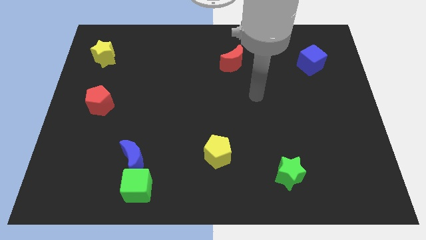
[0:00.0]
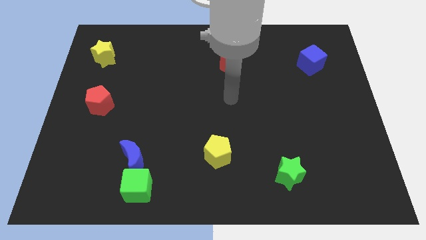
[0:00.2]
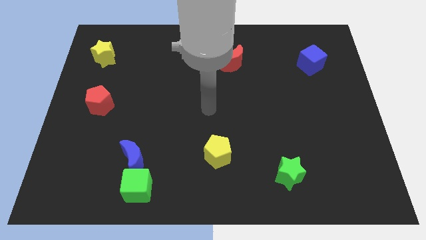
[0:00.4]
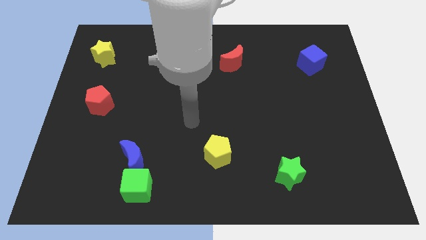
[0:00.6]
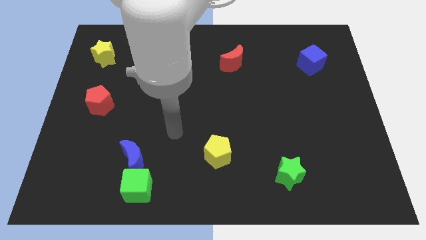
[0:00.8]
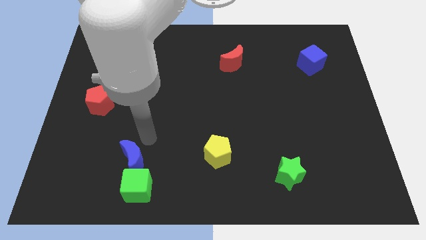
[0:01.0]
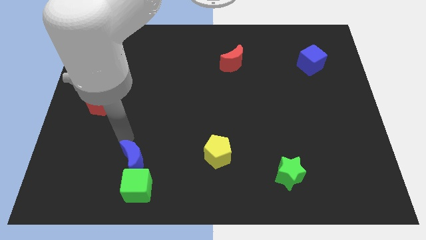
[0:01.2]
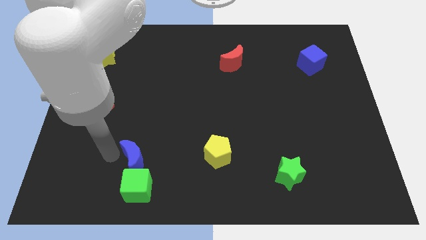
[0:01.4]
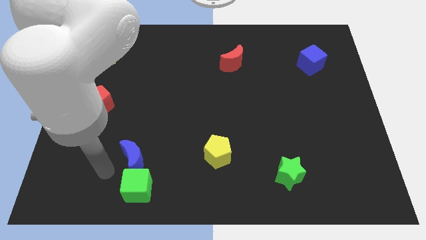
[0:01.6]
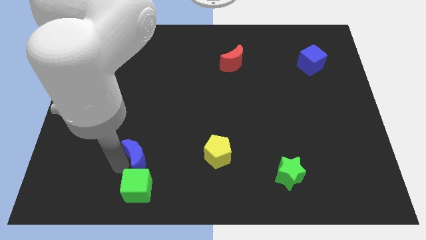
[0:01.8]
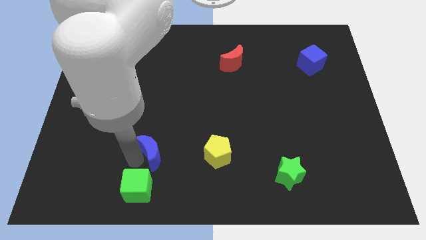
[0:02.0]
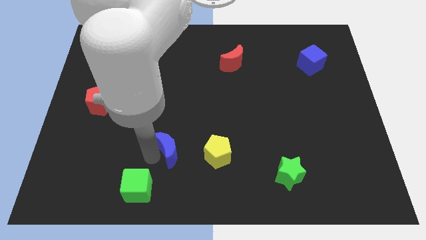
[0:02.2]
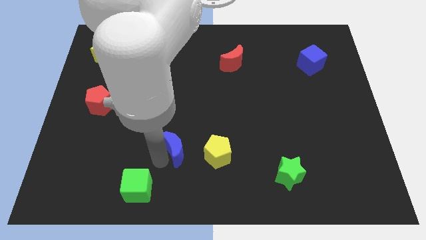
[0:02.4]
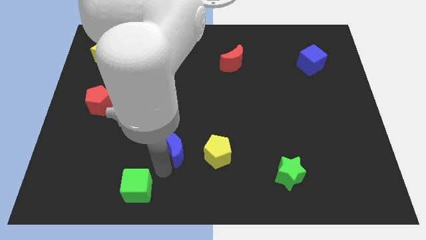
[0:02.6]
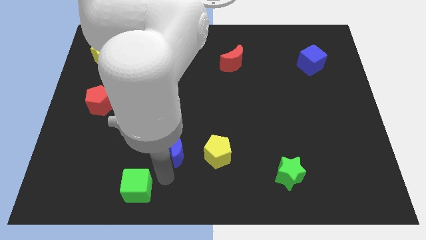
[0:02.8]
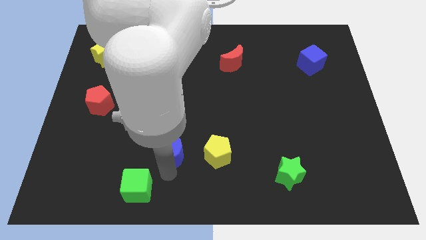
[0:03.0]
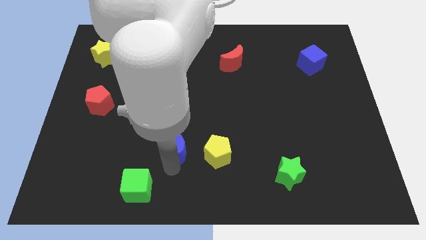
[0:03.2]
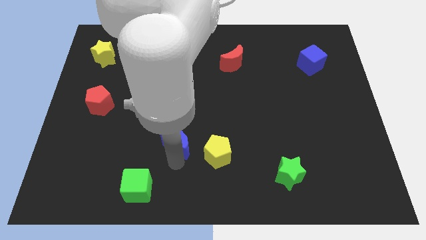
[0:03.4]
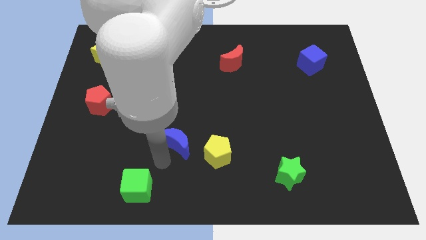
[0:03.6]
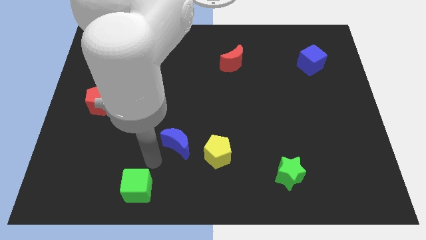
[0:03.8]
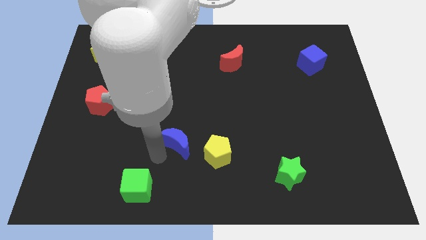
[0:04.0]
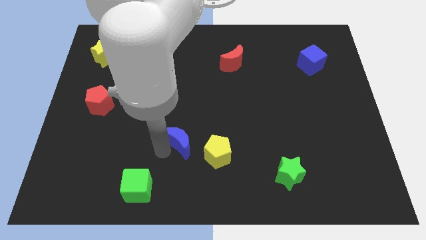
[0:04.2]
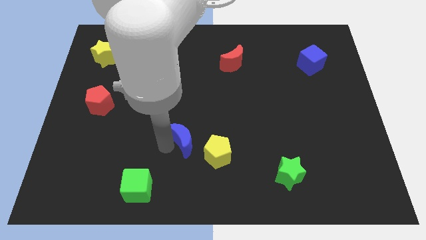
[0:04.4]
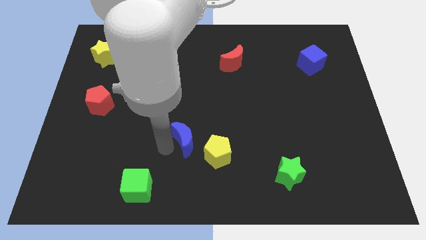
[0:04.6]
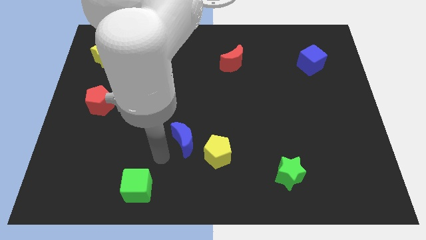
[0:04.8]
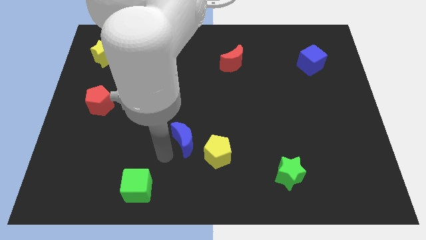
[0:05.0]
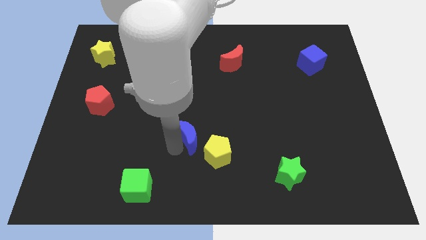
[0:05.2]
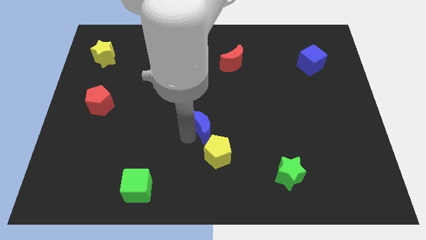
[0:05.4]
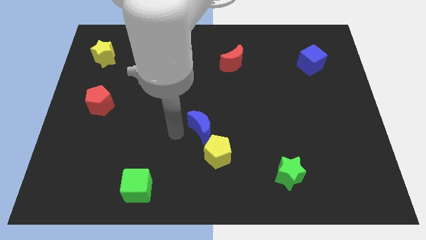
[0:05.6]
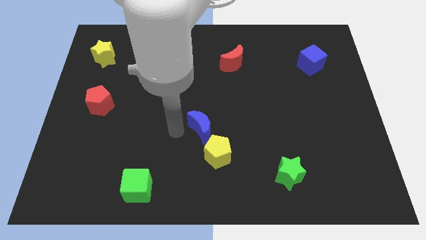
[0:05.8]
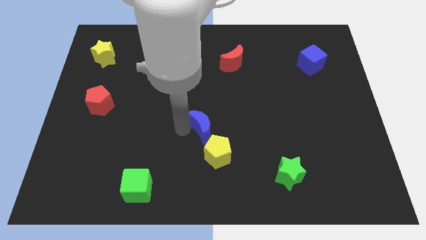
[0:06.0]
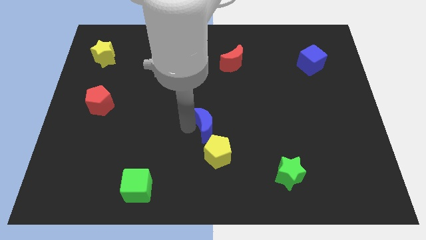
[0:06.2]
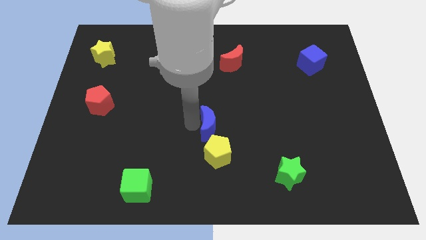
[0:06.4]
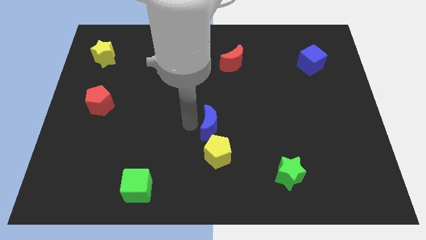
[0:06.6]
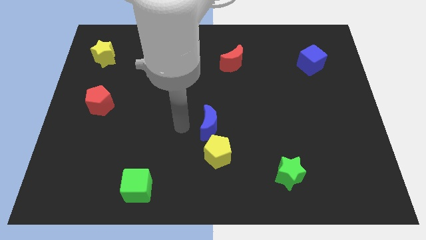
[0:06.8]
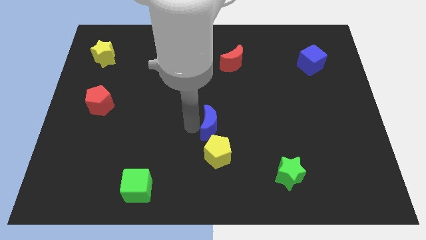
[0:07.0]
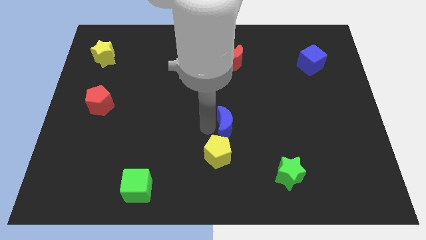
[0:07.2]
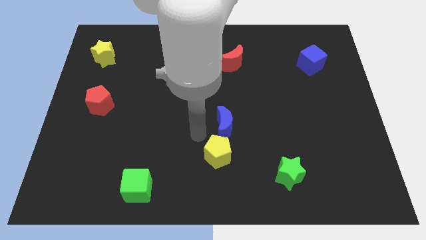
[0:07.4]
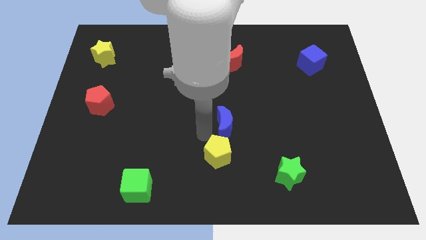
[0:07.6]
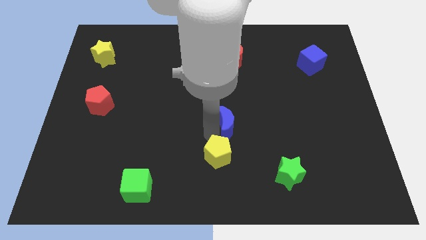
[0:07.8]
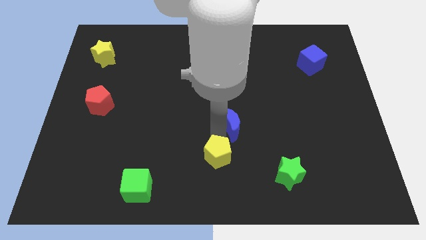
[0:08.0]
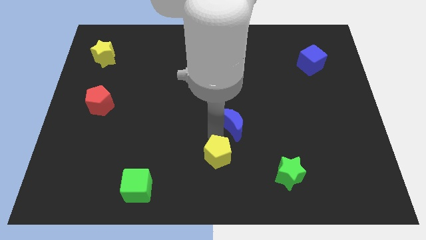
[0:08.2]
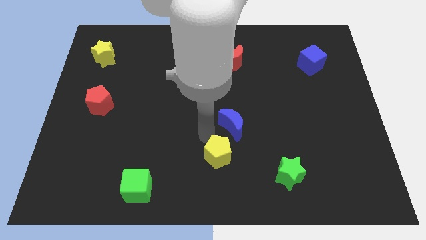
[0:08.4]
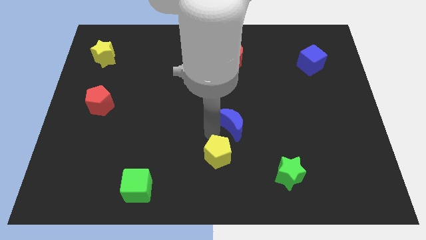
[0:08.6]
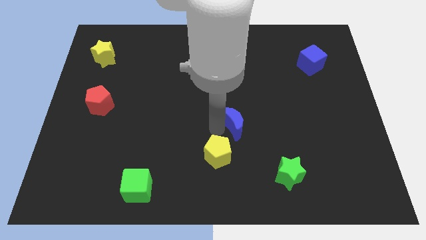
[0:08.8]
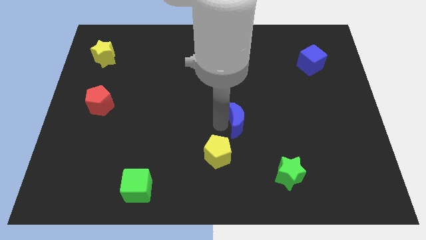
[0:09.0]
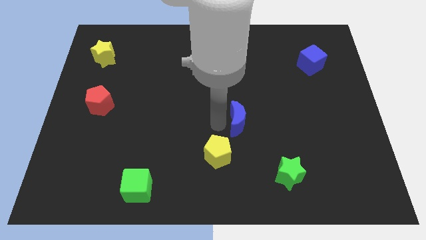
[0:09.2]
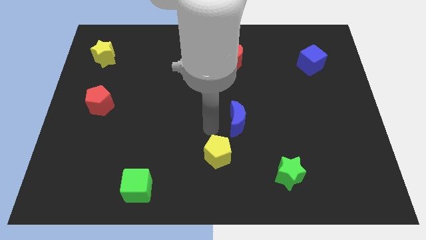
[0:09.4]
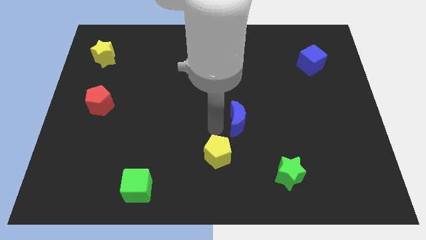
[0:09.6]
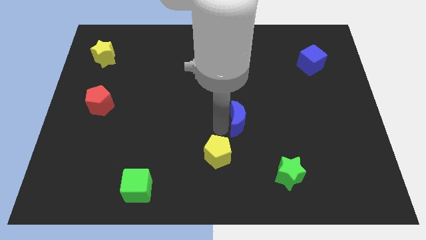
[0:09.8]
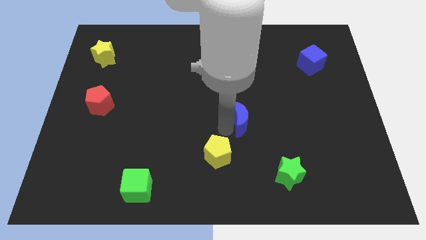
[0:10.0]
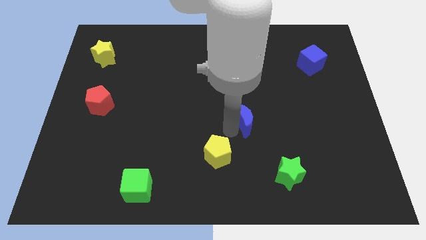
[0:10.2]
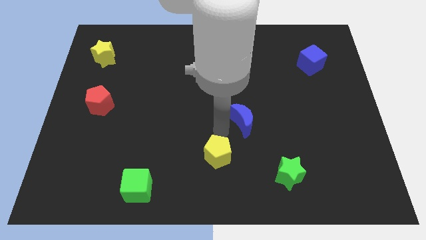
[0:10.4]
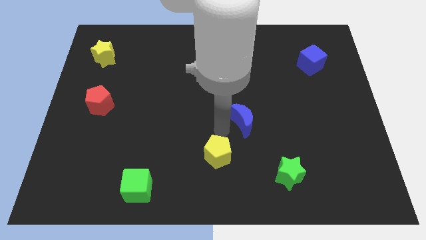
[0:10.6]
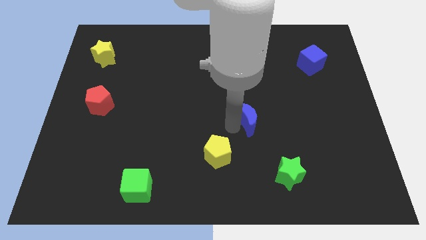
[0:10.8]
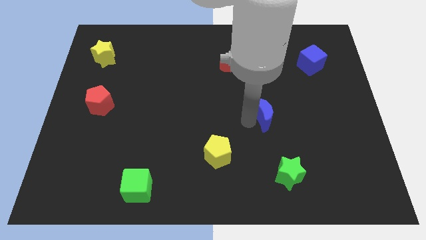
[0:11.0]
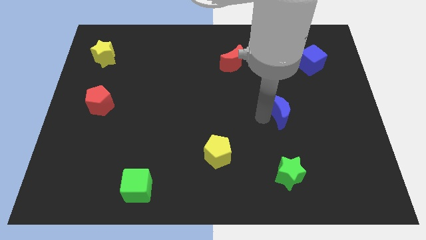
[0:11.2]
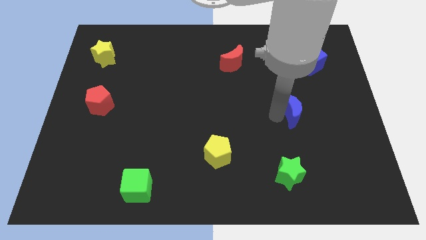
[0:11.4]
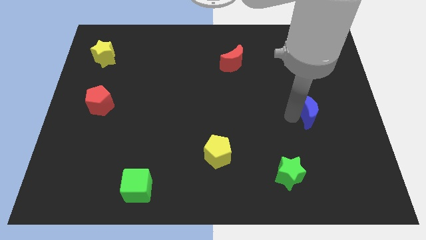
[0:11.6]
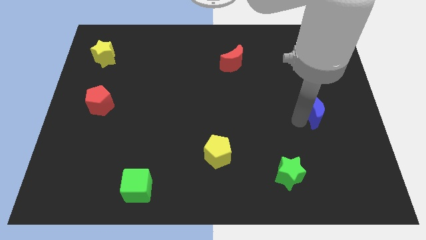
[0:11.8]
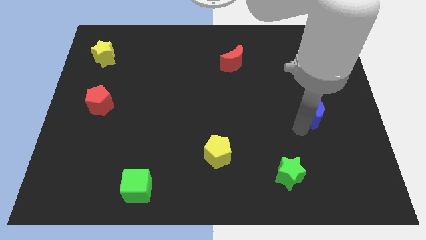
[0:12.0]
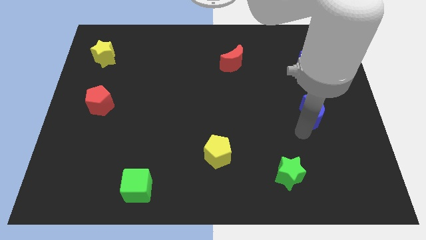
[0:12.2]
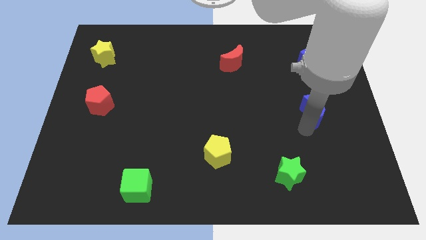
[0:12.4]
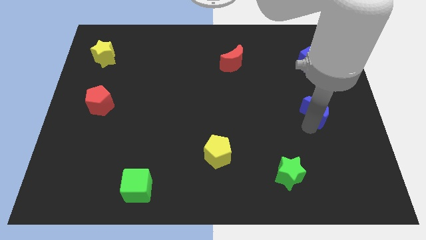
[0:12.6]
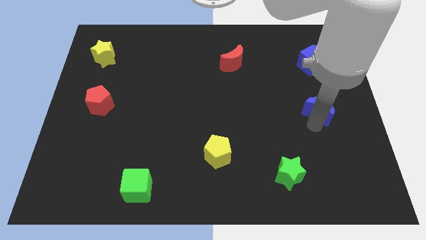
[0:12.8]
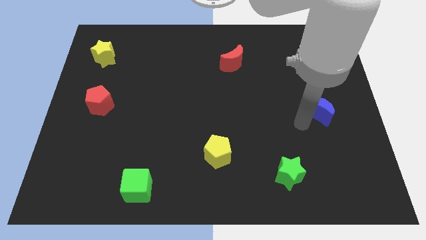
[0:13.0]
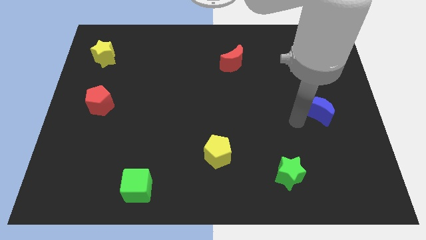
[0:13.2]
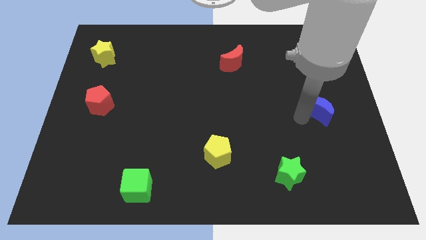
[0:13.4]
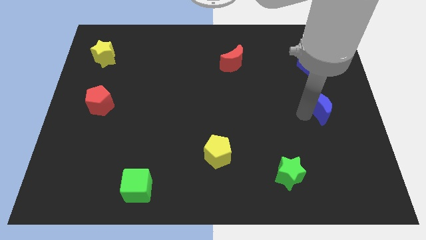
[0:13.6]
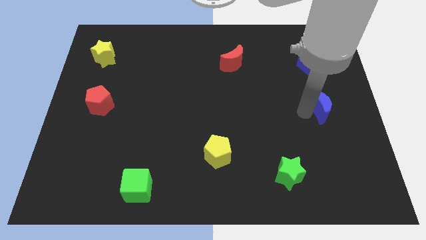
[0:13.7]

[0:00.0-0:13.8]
move the blue moon to the right side of the board
